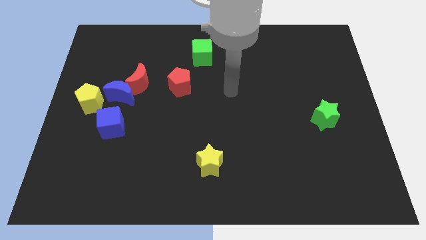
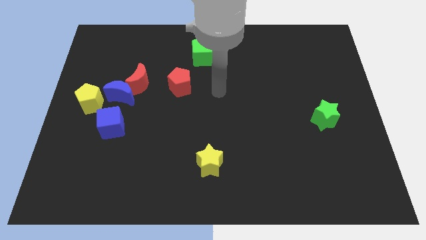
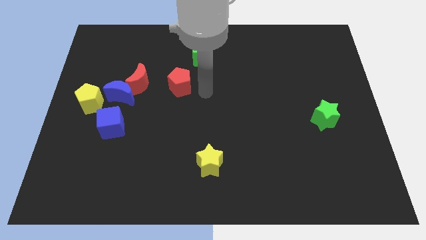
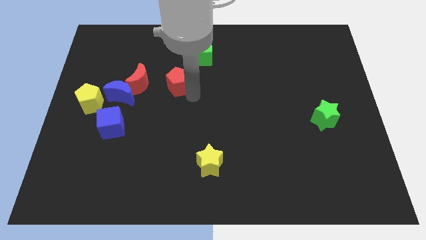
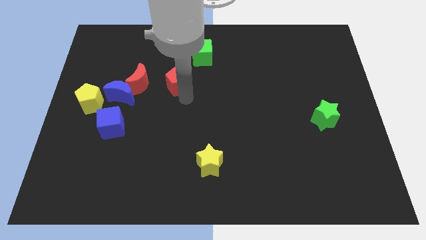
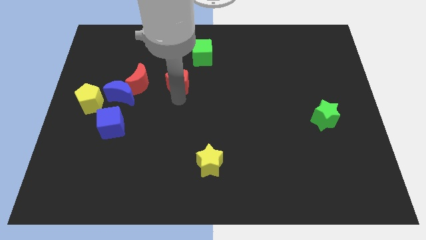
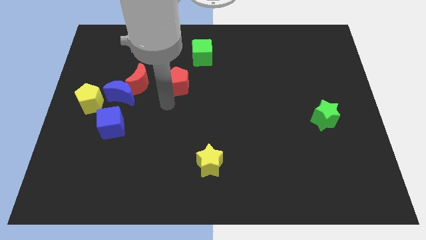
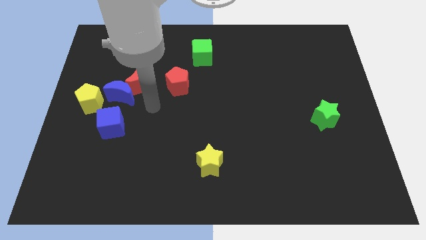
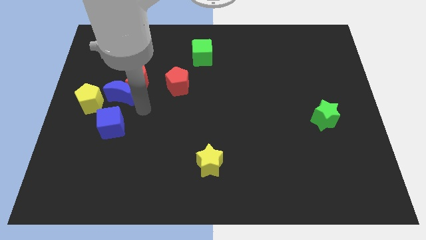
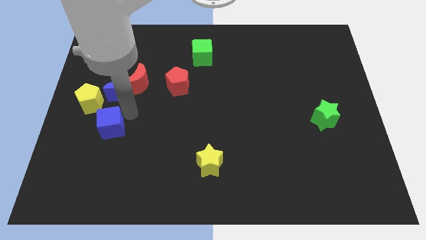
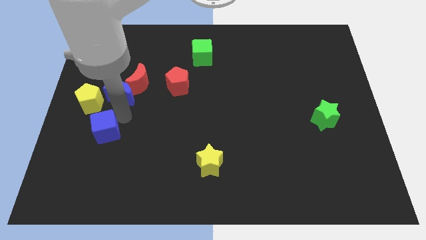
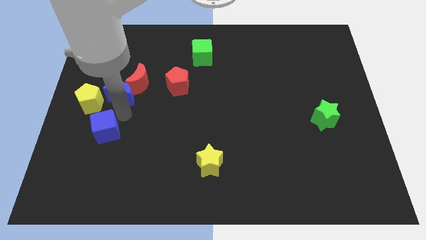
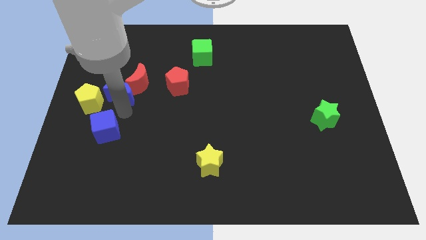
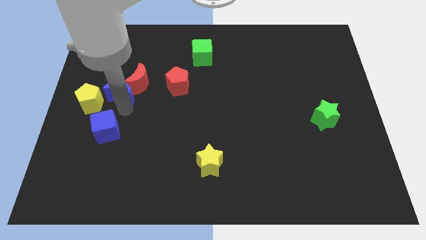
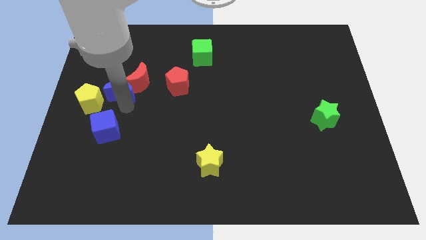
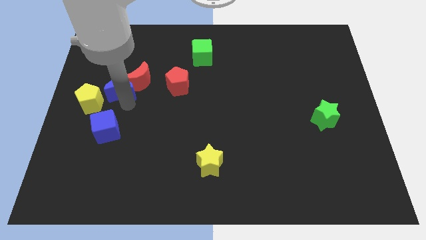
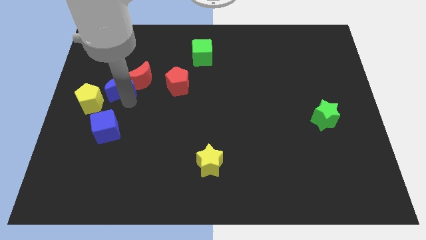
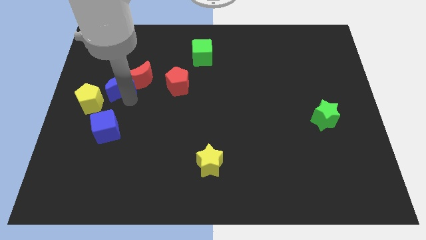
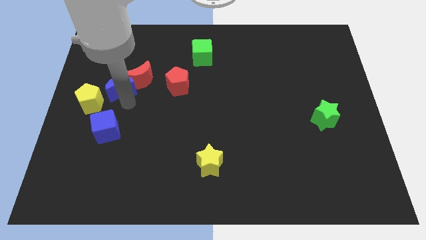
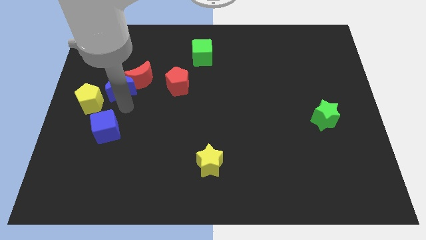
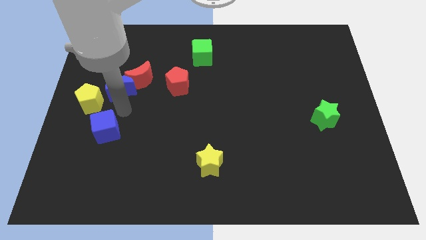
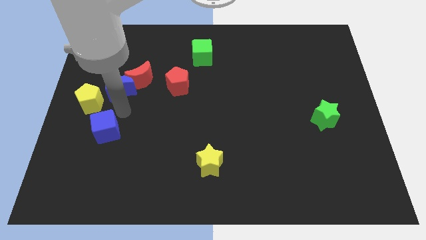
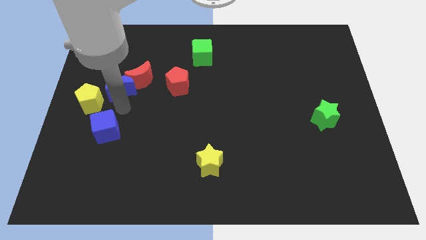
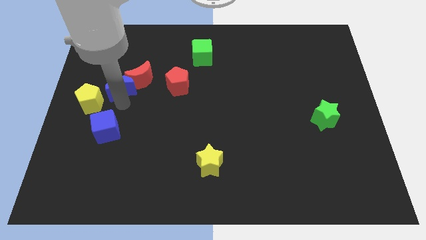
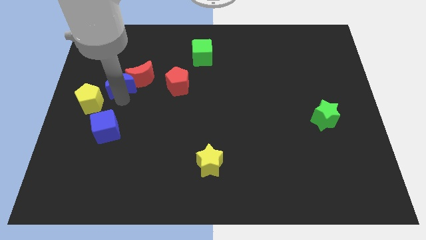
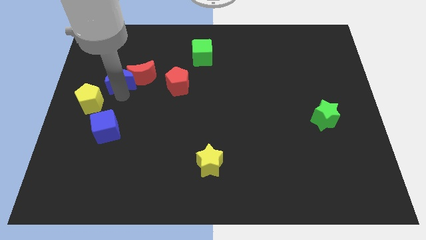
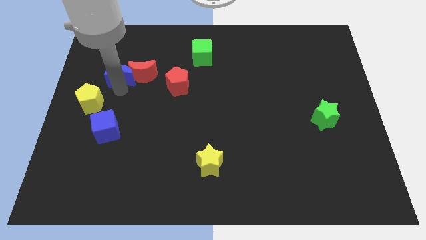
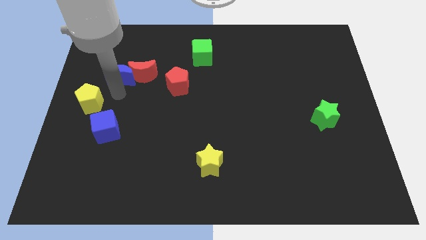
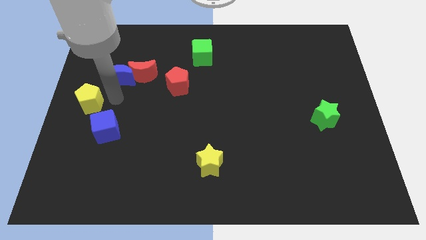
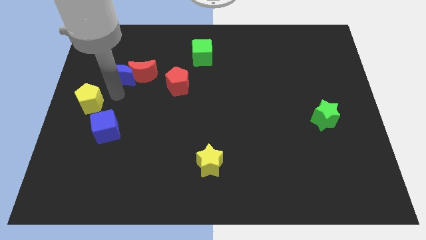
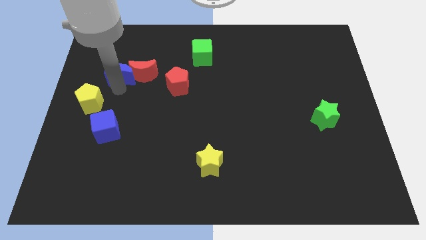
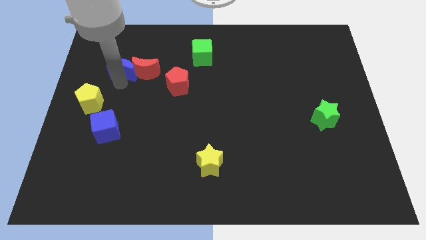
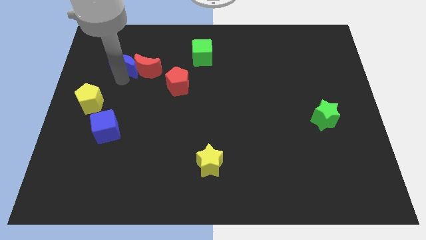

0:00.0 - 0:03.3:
pull the blue moon apart from the clump

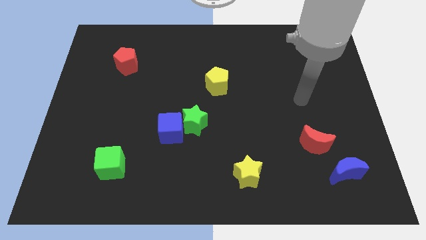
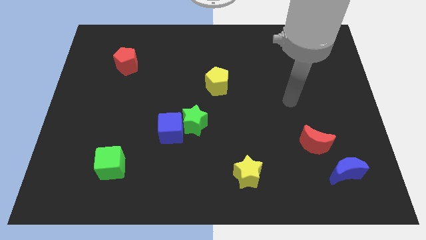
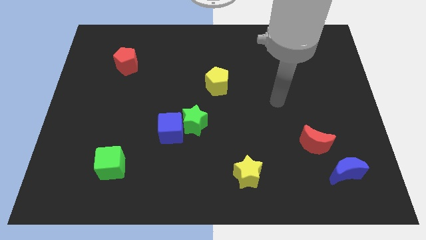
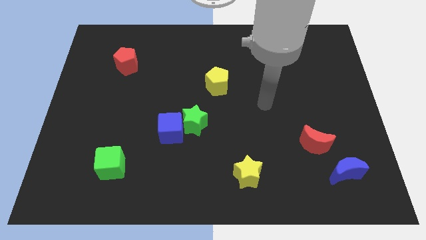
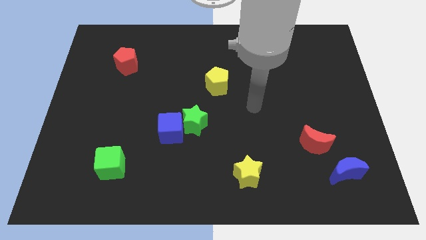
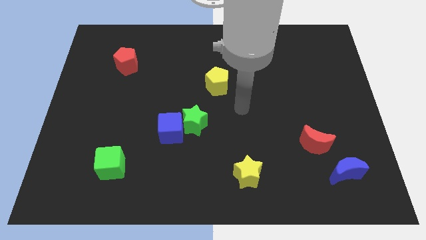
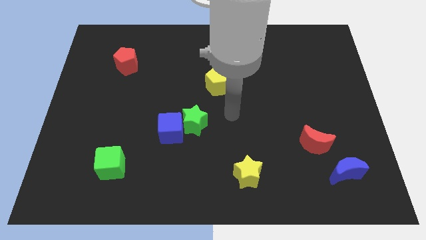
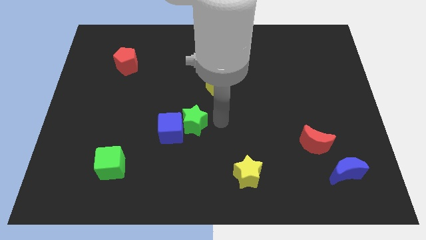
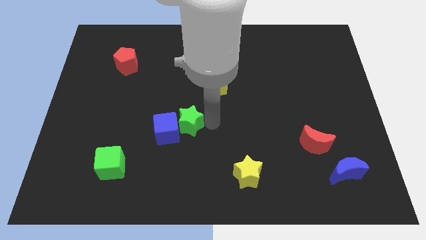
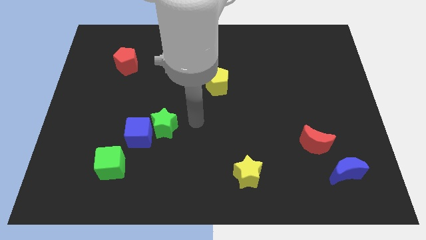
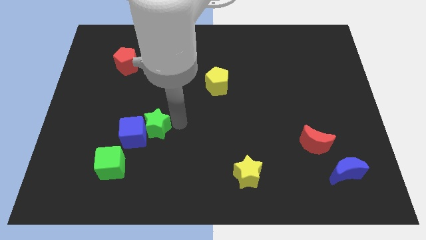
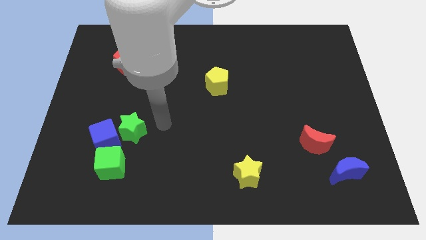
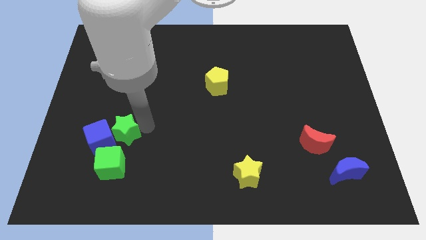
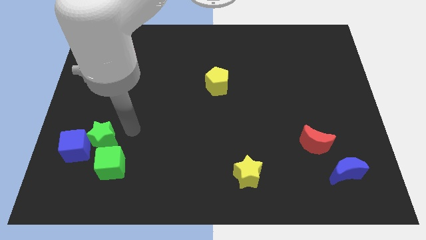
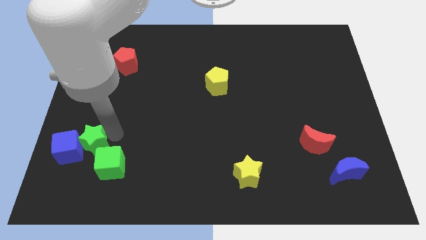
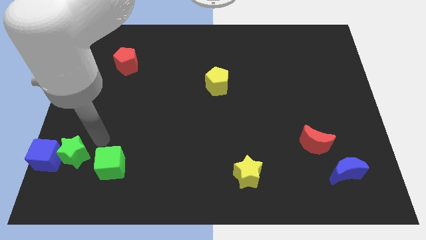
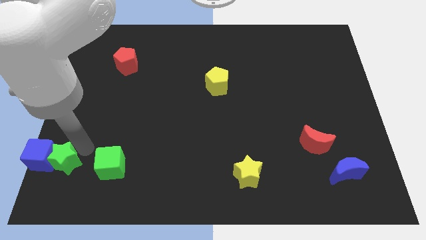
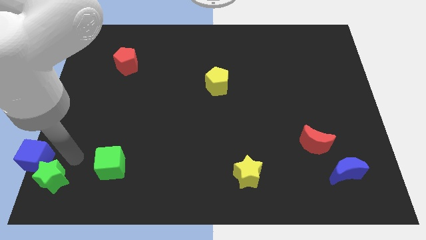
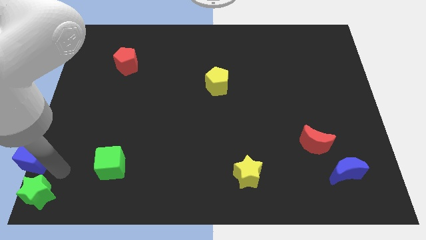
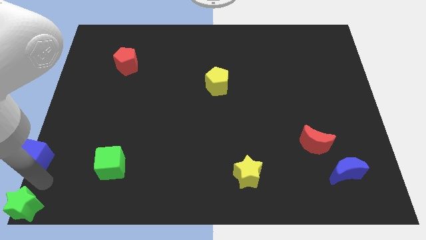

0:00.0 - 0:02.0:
separate the blue cube from the green star

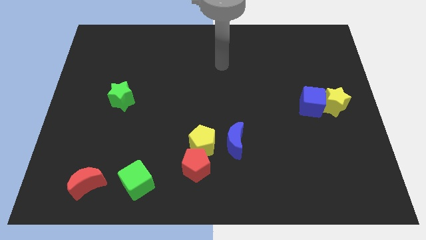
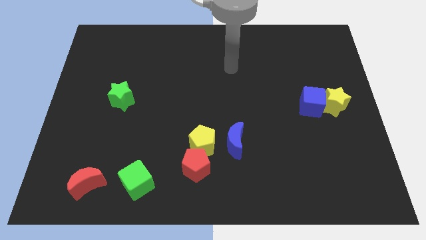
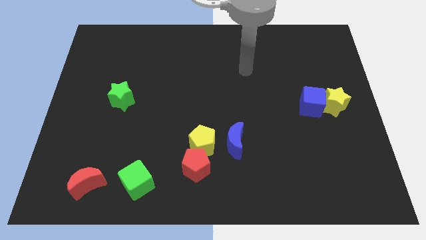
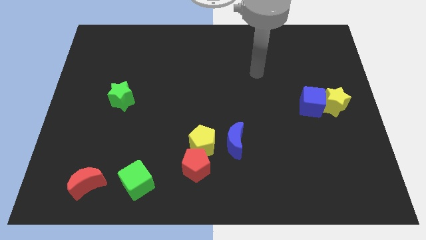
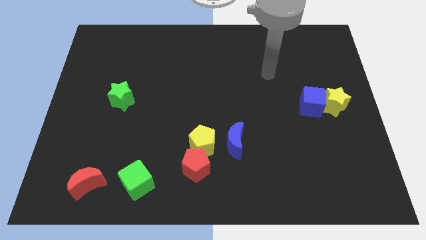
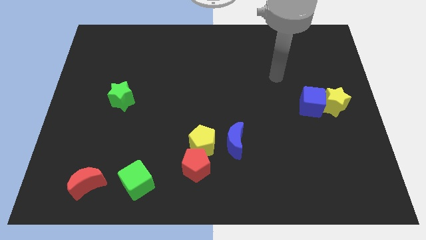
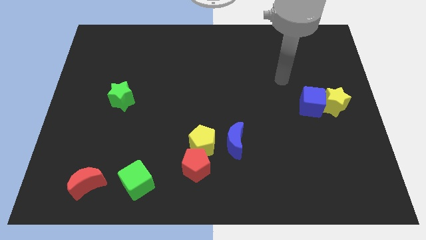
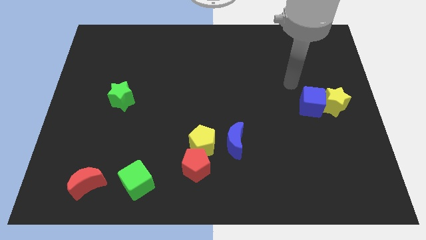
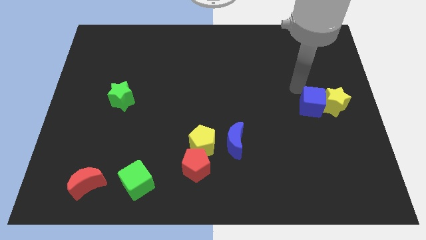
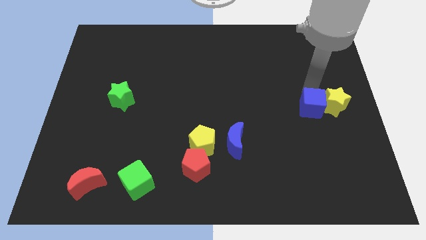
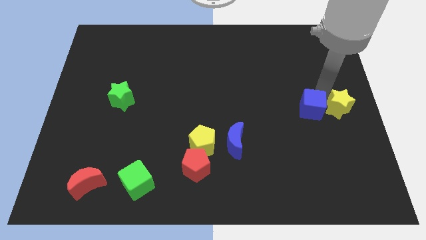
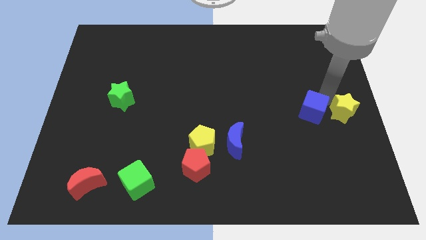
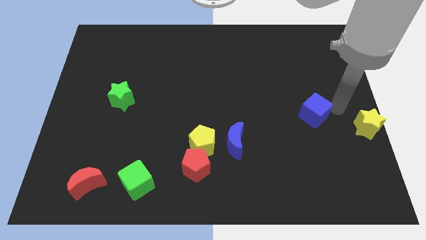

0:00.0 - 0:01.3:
move the blue cube away from the yellow star

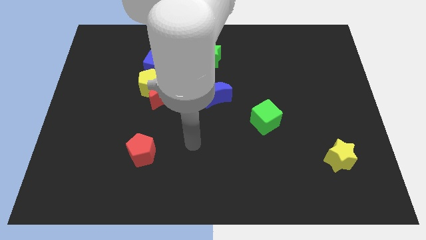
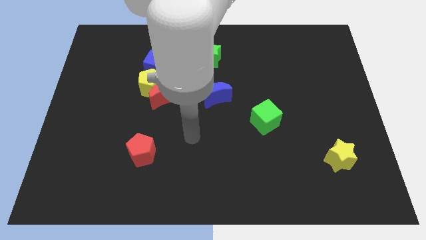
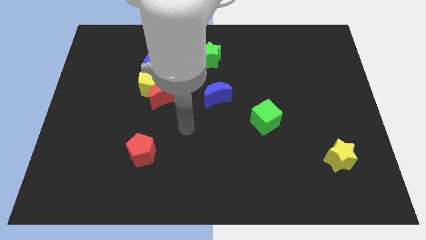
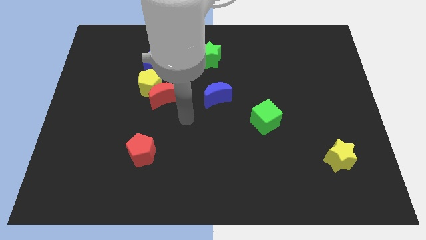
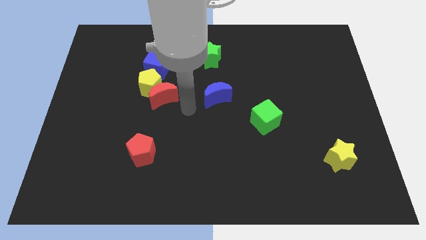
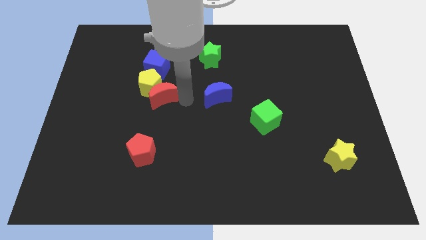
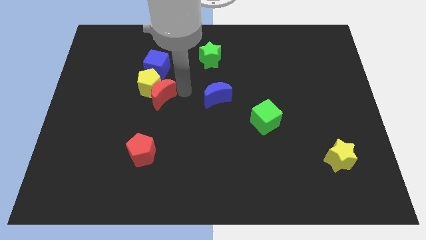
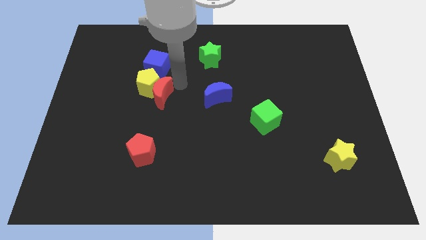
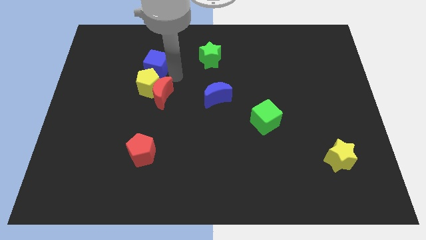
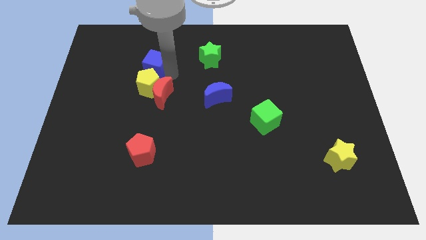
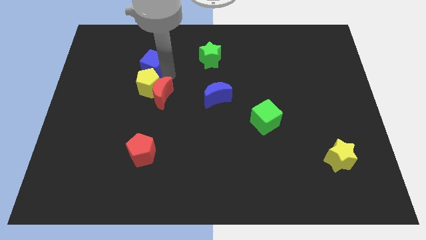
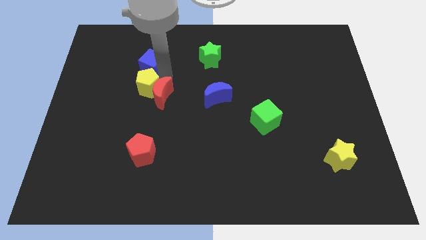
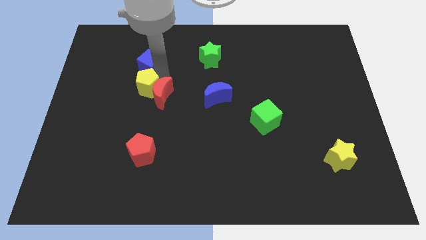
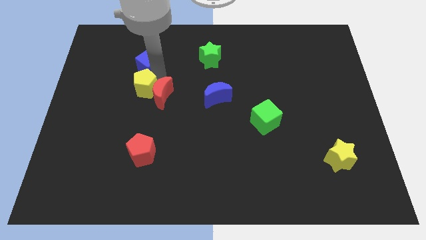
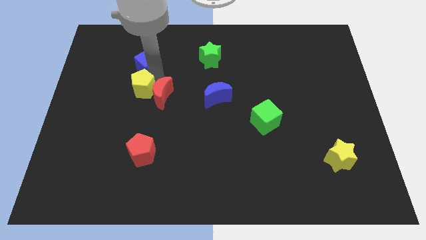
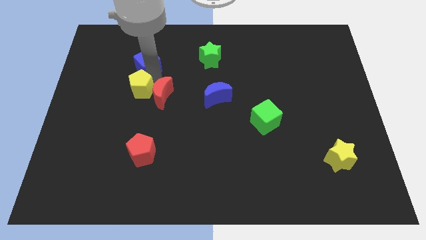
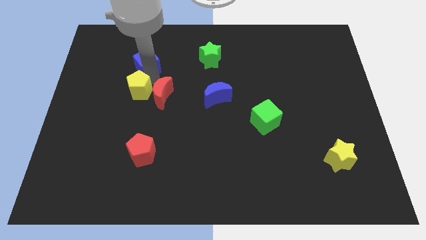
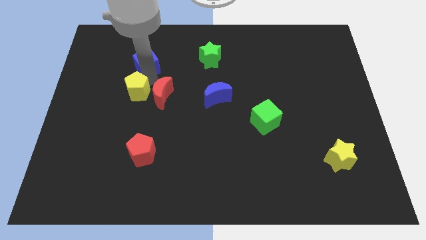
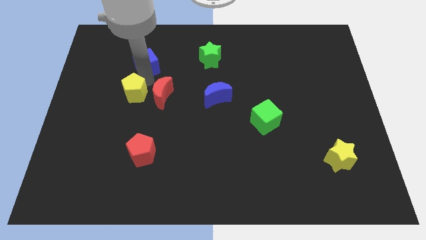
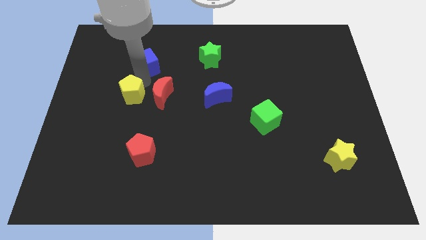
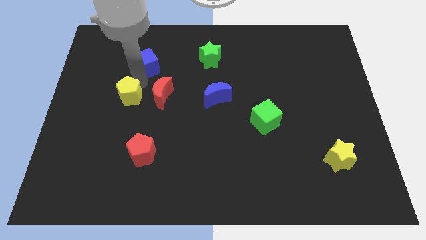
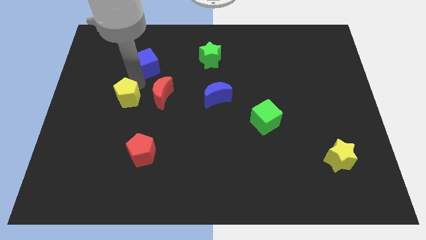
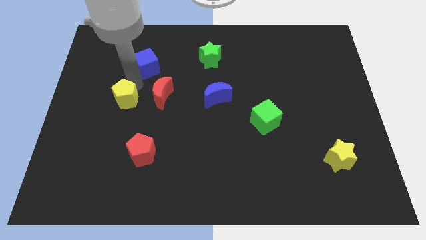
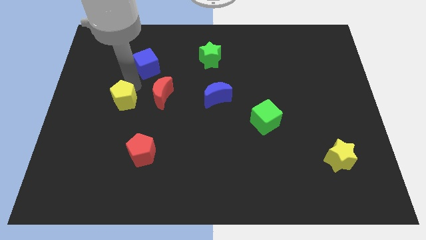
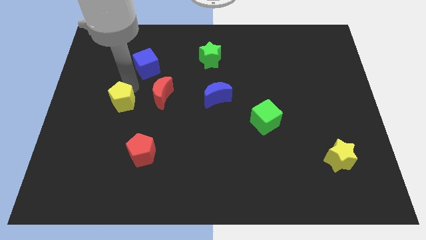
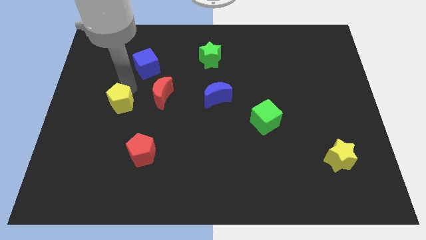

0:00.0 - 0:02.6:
pull the yellow pentagon apart from the red moon and blue cube

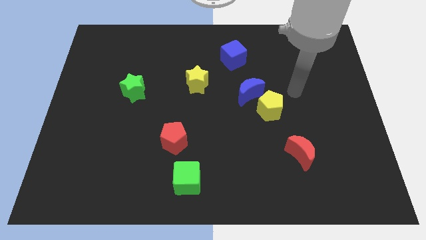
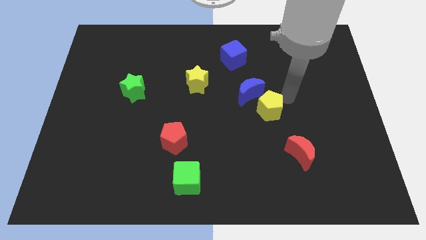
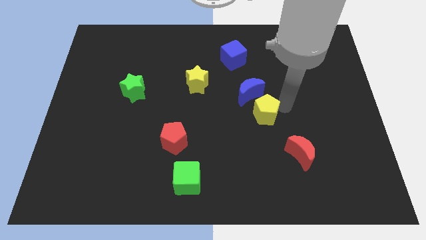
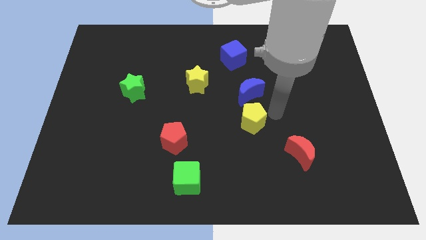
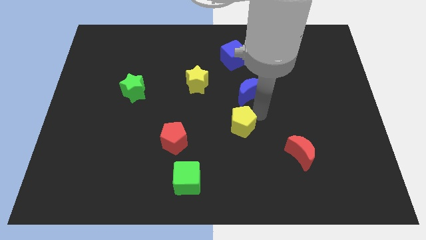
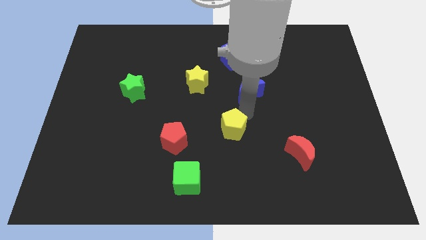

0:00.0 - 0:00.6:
separate the blue moon from the yellow pentagon
